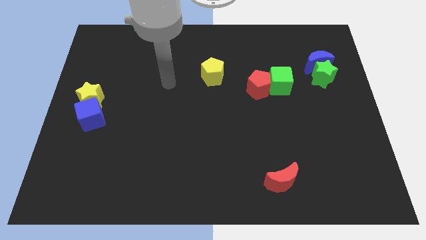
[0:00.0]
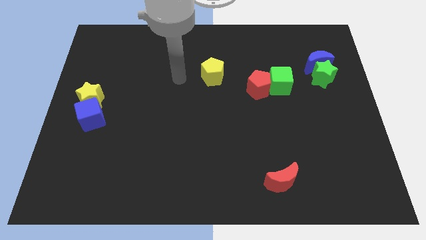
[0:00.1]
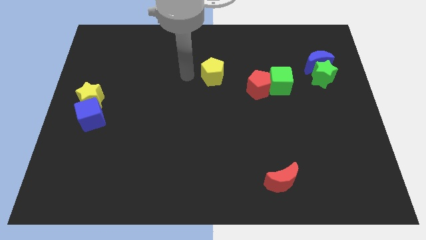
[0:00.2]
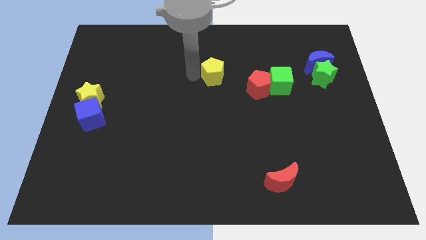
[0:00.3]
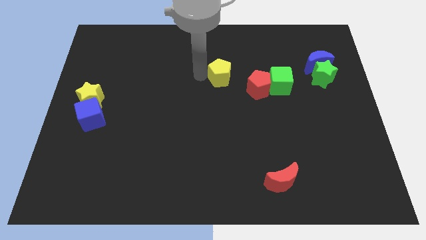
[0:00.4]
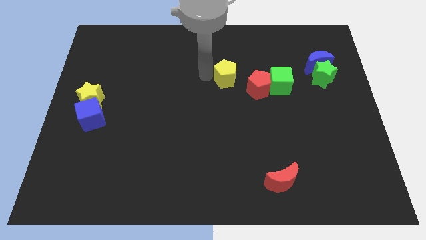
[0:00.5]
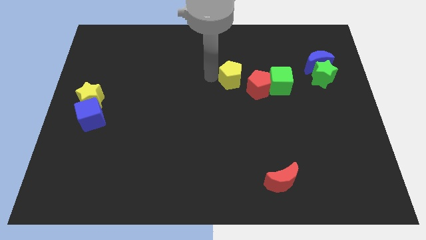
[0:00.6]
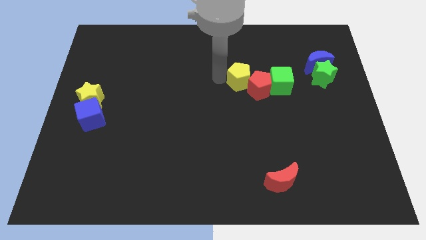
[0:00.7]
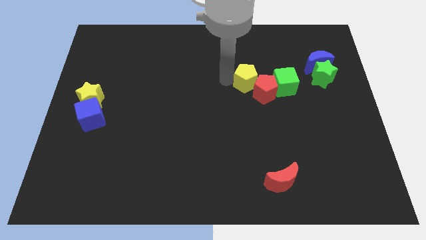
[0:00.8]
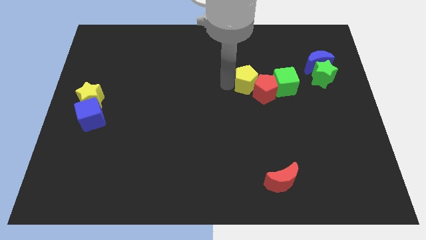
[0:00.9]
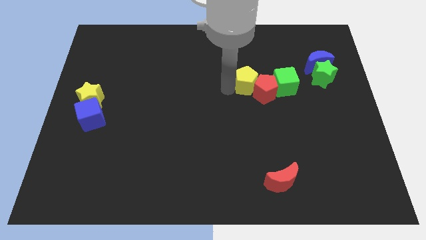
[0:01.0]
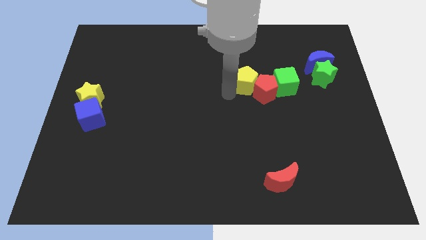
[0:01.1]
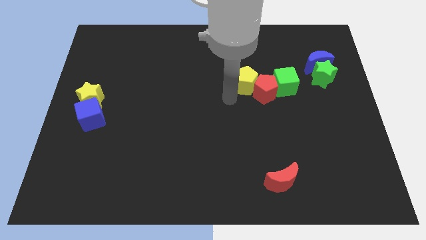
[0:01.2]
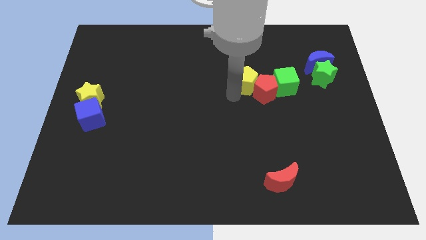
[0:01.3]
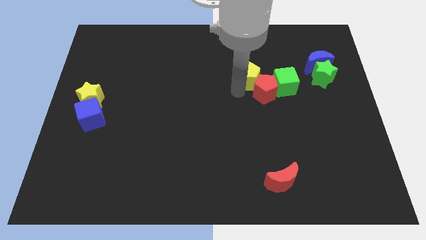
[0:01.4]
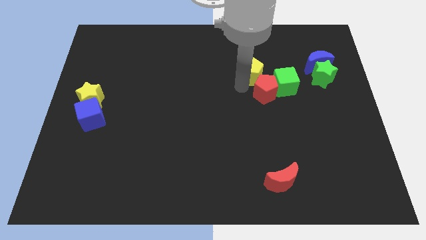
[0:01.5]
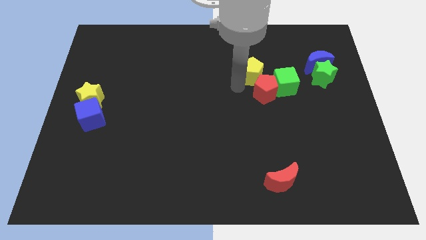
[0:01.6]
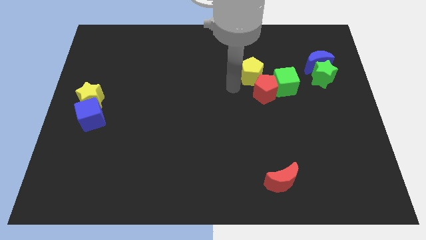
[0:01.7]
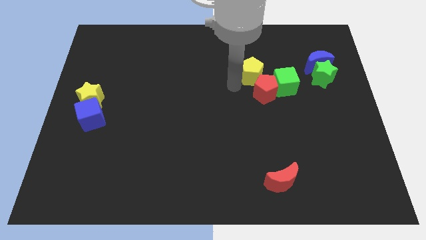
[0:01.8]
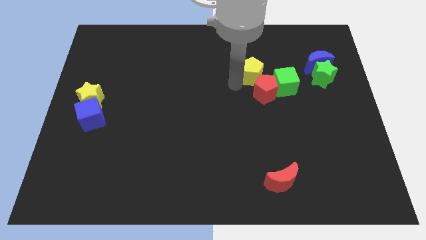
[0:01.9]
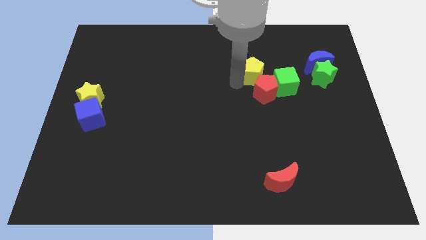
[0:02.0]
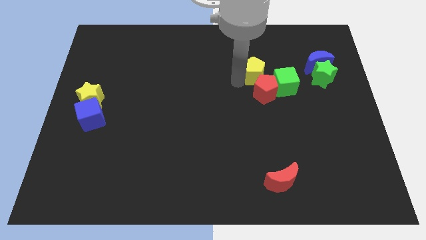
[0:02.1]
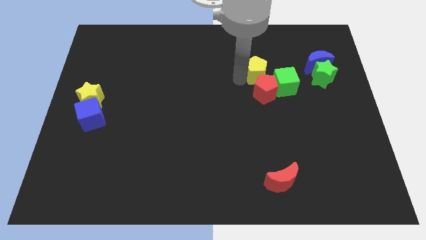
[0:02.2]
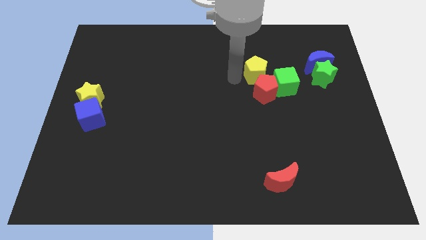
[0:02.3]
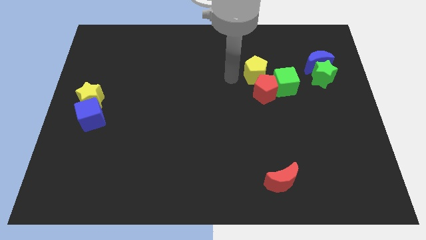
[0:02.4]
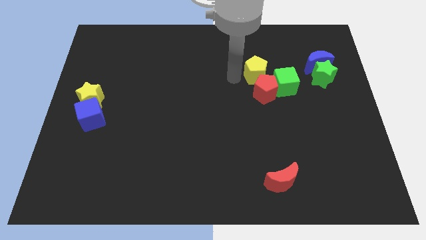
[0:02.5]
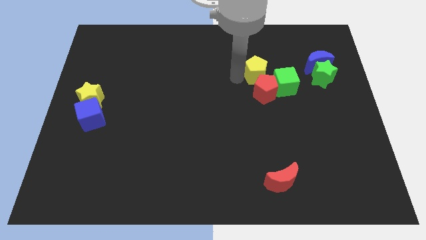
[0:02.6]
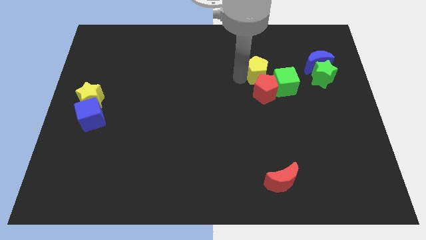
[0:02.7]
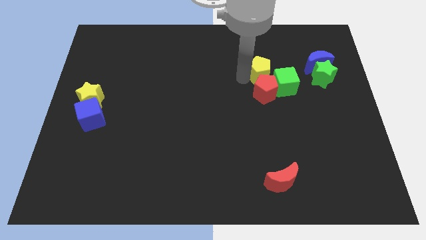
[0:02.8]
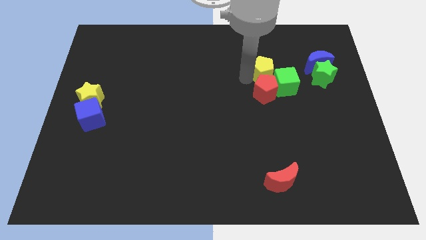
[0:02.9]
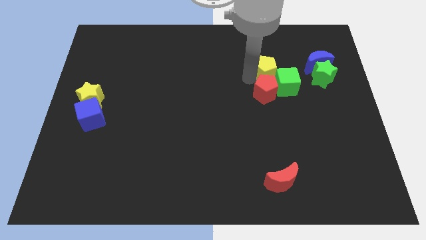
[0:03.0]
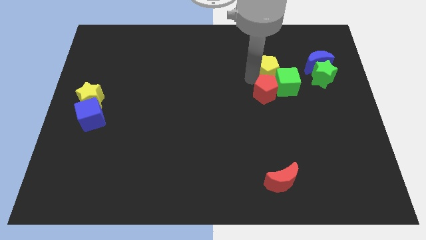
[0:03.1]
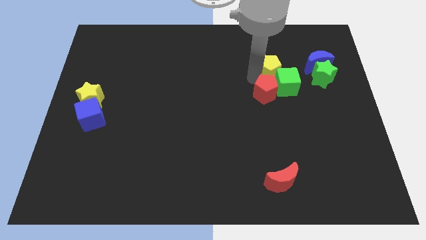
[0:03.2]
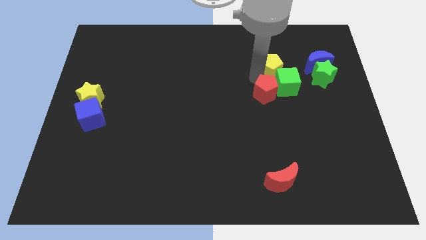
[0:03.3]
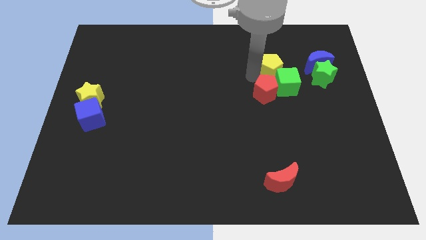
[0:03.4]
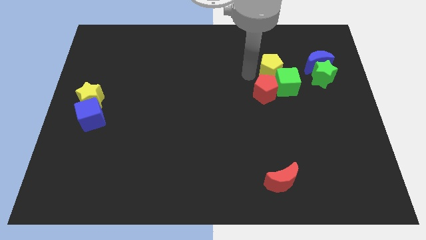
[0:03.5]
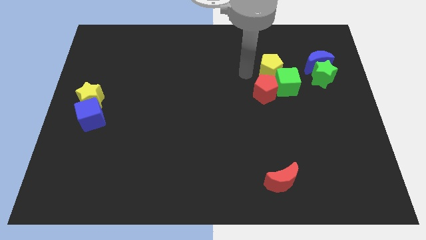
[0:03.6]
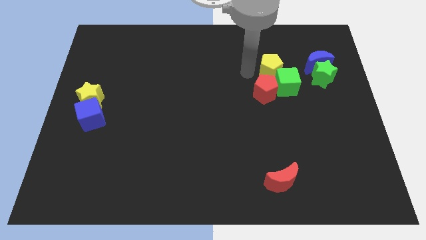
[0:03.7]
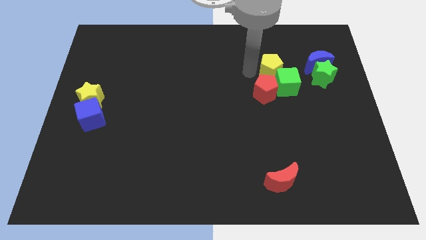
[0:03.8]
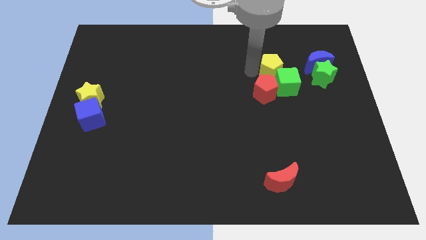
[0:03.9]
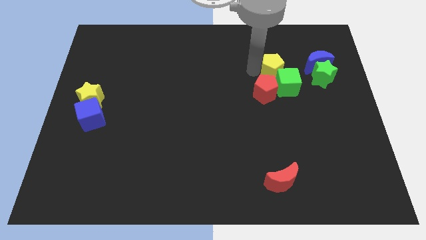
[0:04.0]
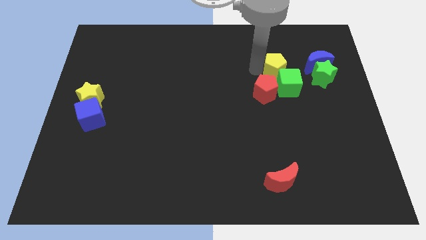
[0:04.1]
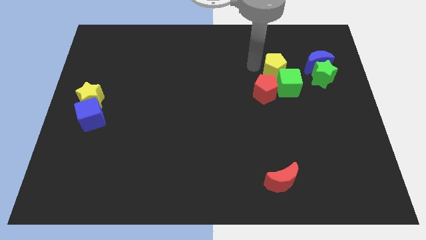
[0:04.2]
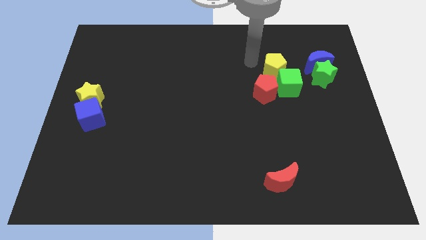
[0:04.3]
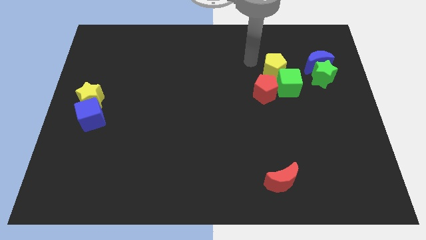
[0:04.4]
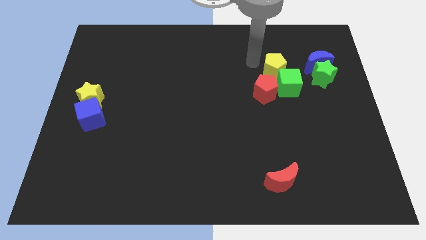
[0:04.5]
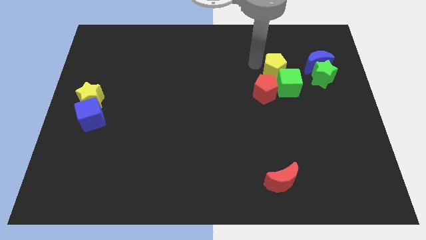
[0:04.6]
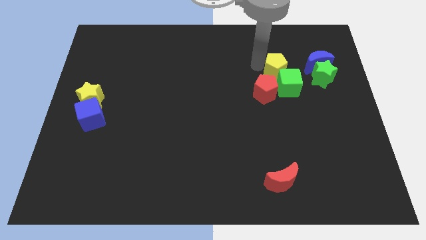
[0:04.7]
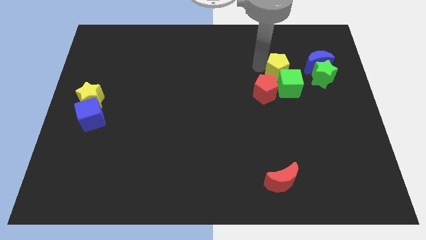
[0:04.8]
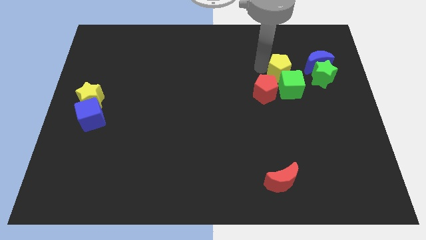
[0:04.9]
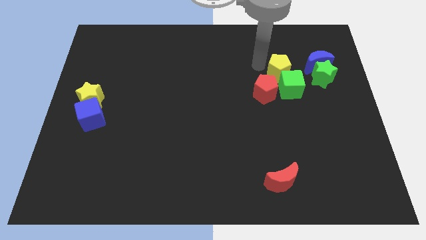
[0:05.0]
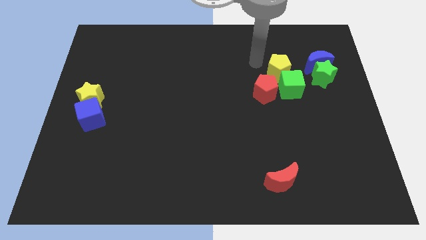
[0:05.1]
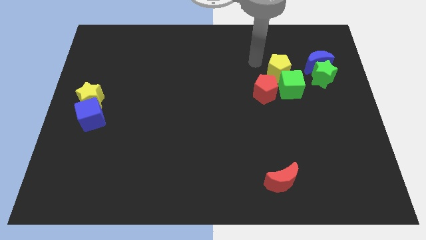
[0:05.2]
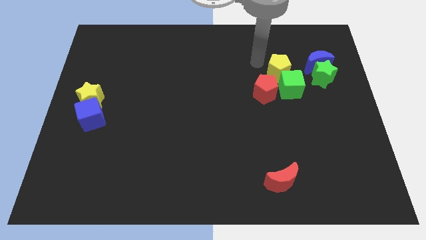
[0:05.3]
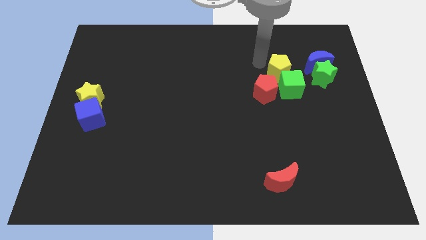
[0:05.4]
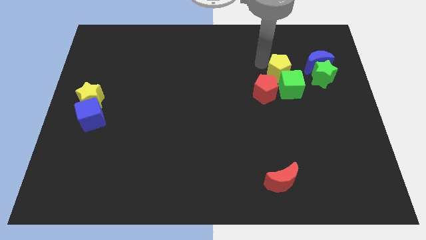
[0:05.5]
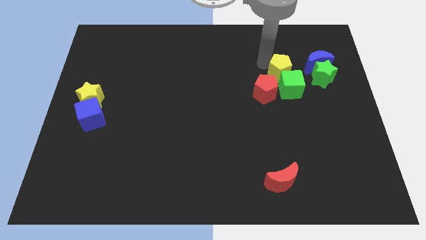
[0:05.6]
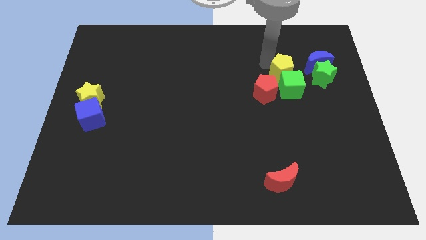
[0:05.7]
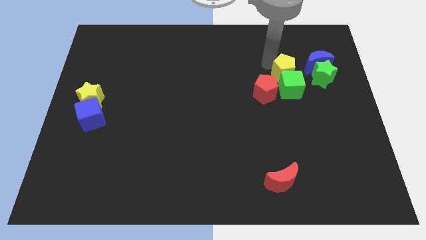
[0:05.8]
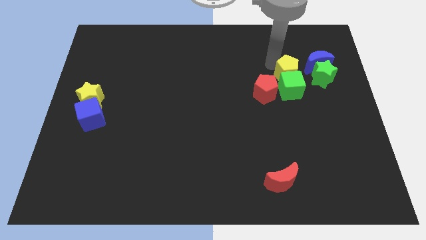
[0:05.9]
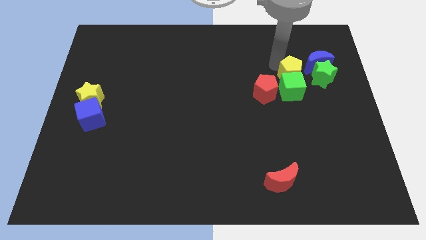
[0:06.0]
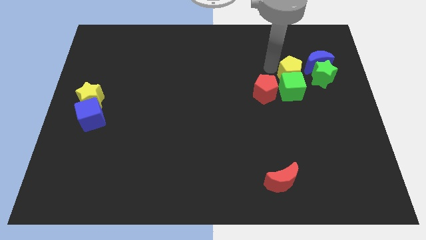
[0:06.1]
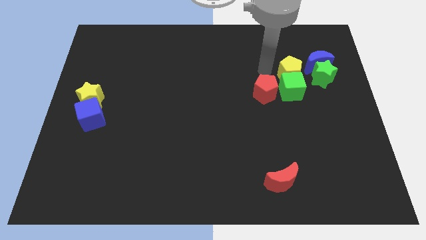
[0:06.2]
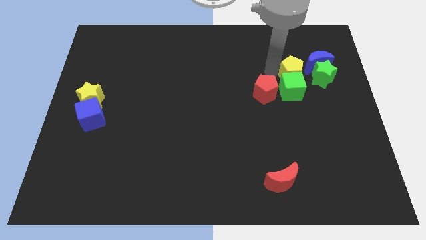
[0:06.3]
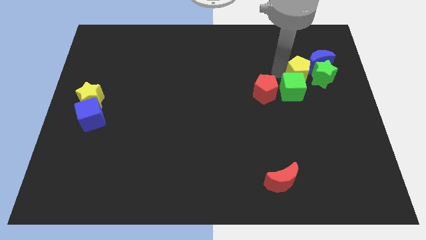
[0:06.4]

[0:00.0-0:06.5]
push the yellow pentagon close to the green star

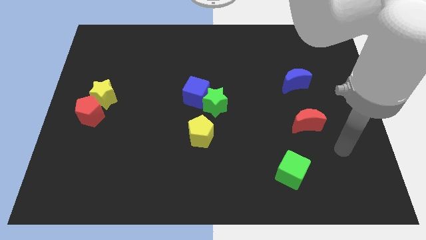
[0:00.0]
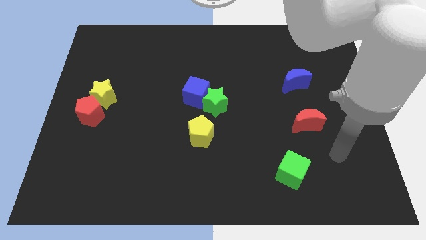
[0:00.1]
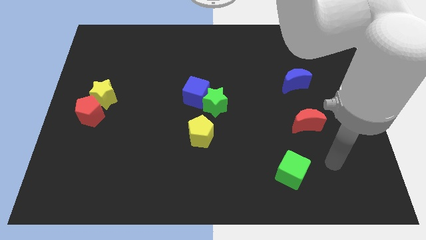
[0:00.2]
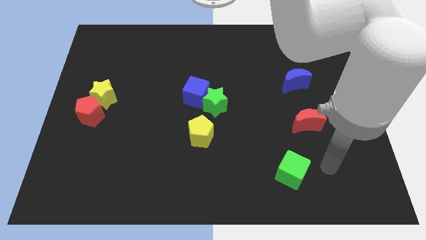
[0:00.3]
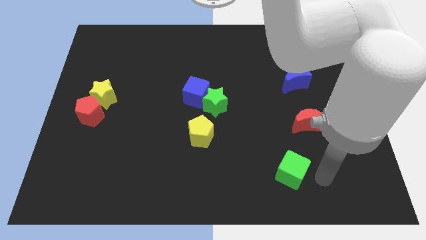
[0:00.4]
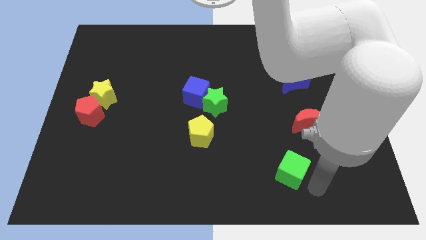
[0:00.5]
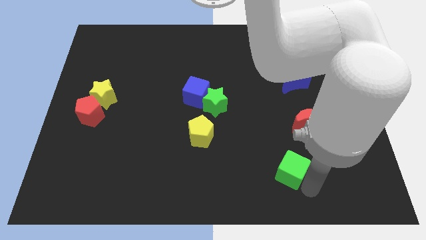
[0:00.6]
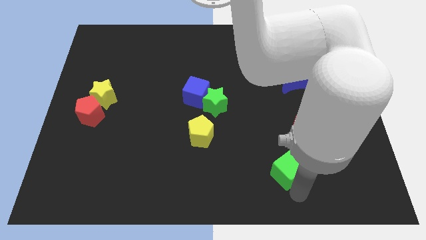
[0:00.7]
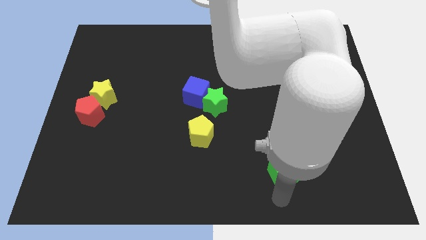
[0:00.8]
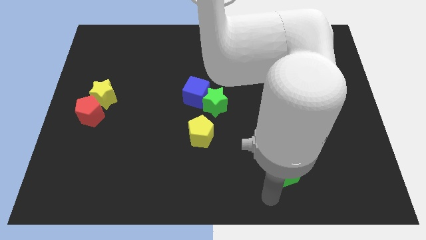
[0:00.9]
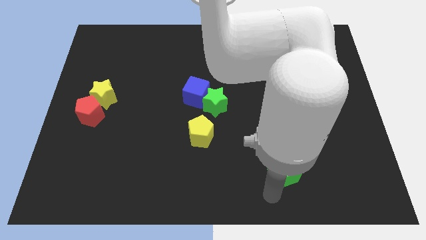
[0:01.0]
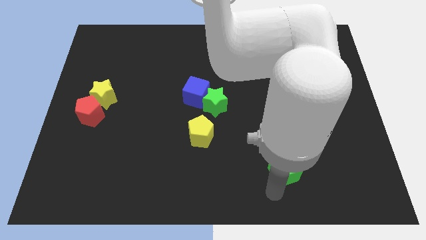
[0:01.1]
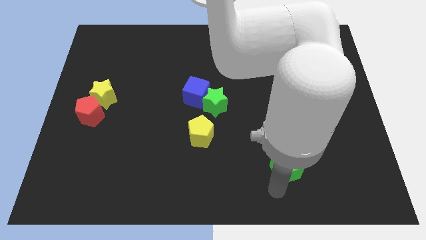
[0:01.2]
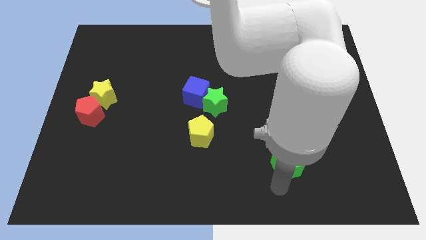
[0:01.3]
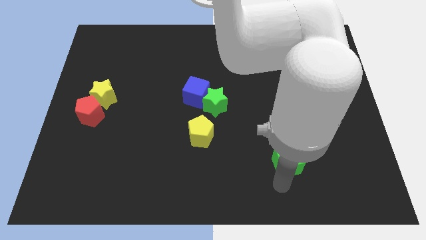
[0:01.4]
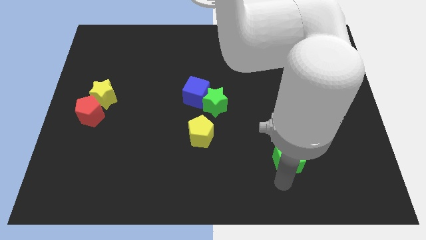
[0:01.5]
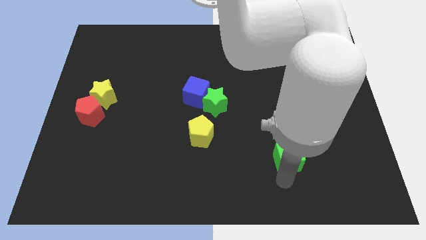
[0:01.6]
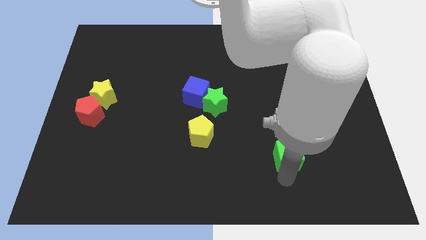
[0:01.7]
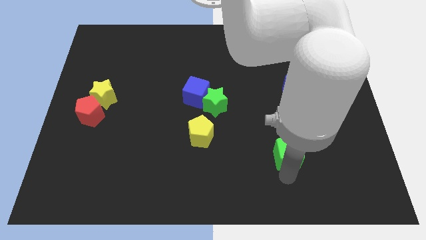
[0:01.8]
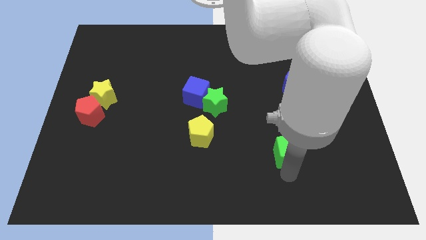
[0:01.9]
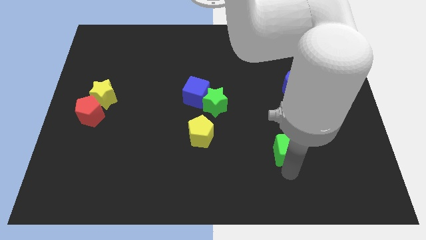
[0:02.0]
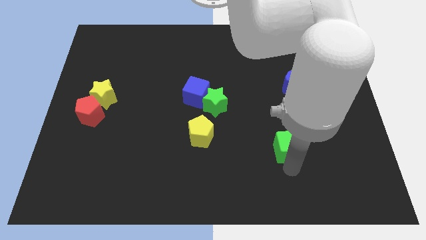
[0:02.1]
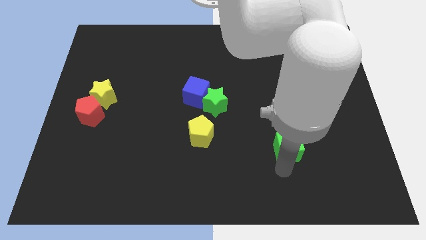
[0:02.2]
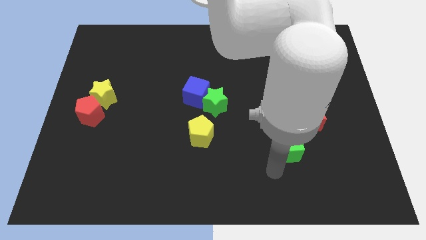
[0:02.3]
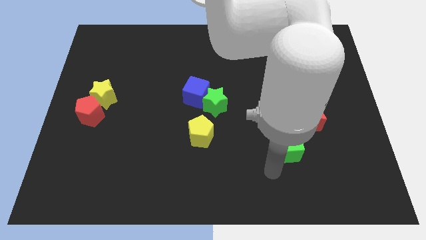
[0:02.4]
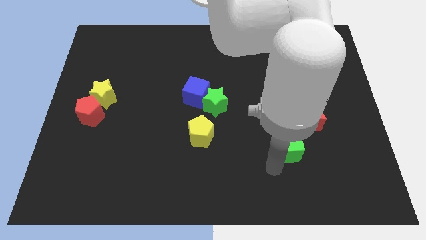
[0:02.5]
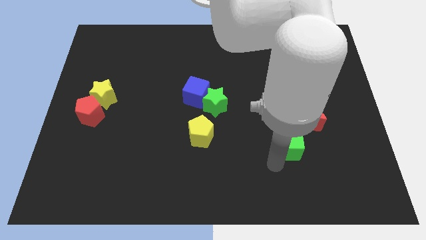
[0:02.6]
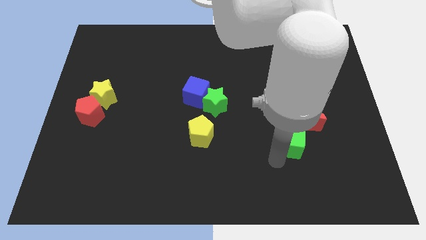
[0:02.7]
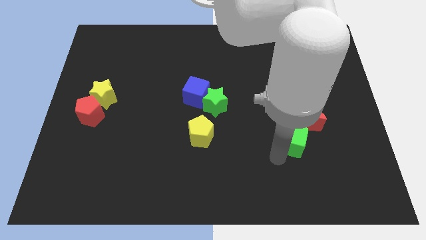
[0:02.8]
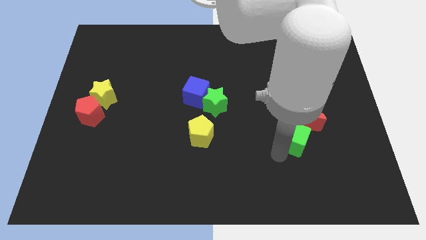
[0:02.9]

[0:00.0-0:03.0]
move the green cube close to the red moon
